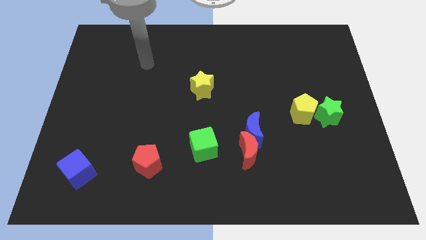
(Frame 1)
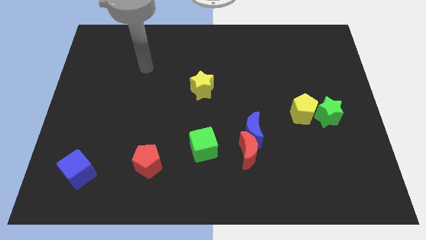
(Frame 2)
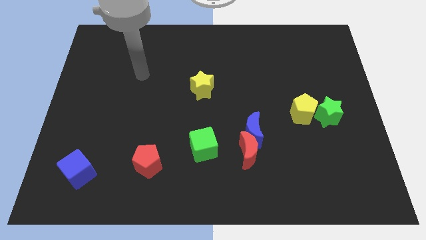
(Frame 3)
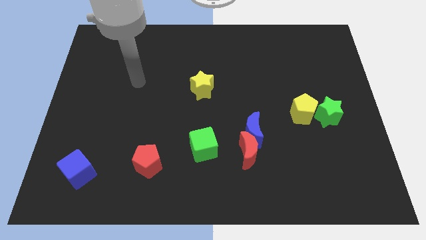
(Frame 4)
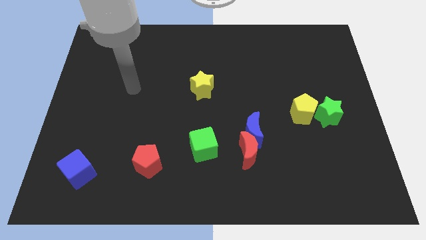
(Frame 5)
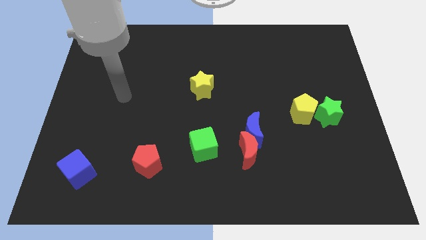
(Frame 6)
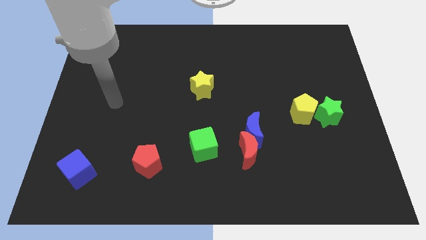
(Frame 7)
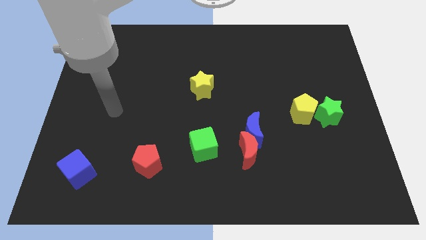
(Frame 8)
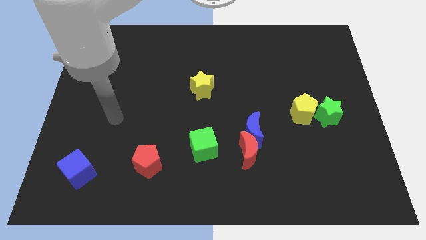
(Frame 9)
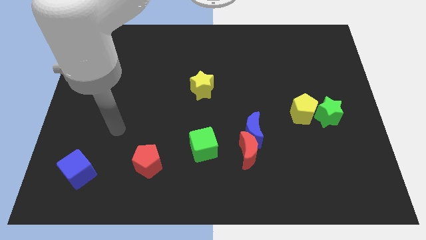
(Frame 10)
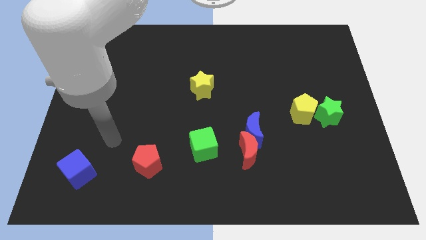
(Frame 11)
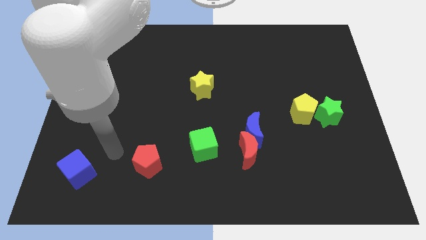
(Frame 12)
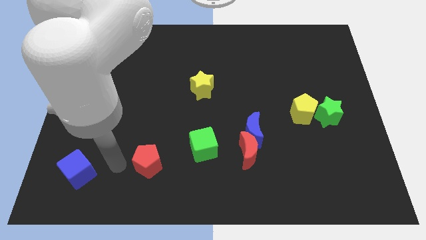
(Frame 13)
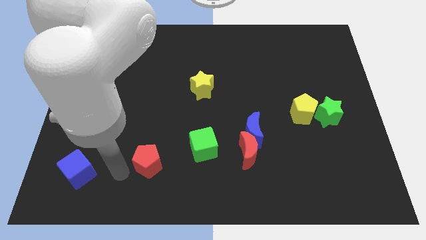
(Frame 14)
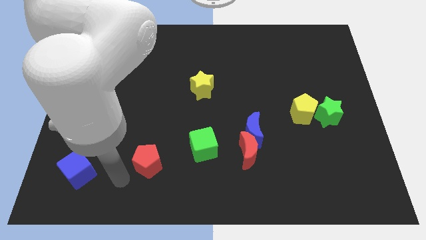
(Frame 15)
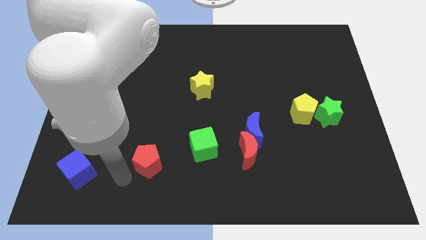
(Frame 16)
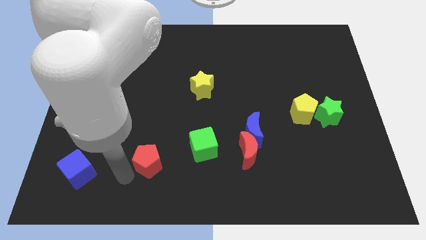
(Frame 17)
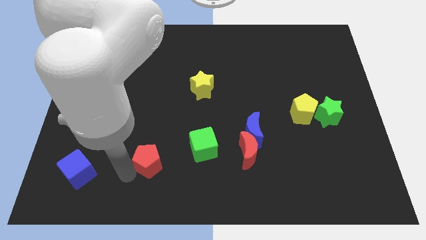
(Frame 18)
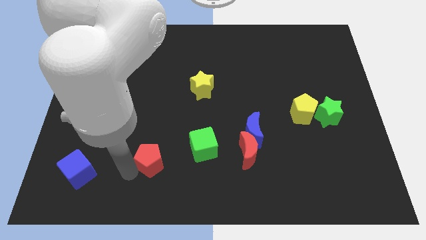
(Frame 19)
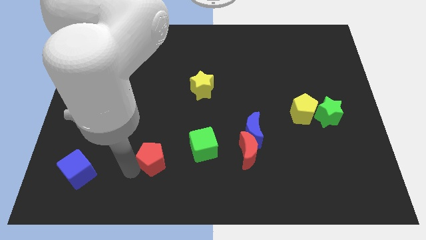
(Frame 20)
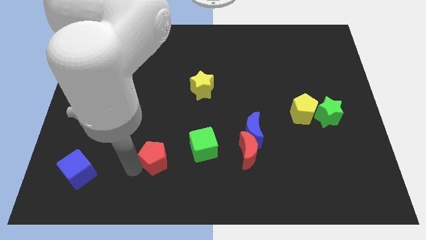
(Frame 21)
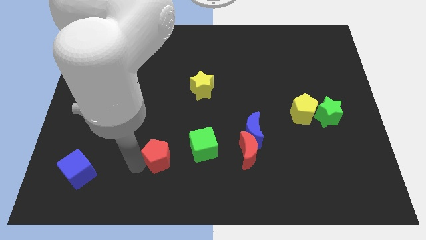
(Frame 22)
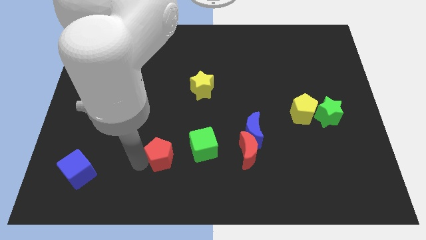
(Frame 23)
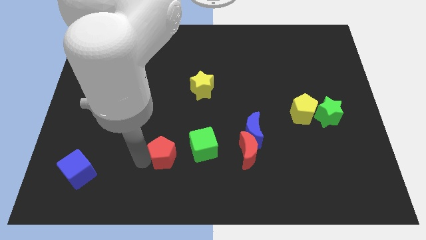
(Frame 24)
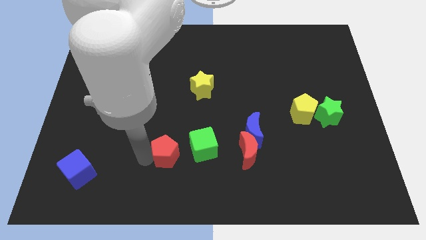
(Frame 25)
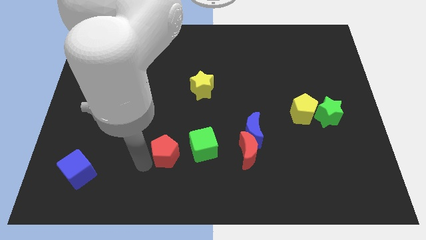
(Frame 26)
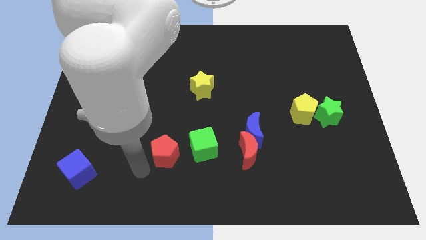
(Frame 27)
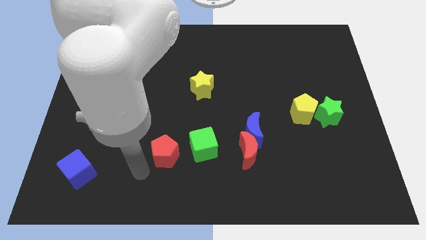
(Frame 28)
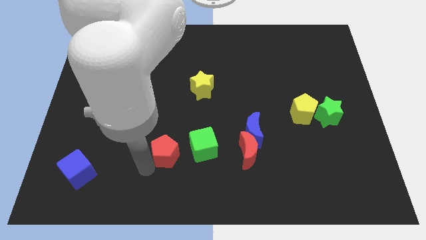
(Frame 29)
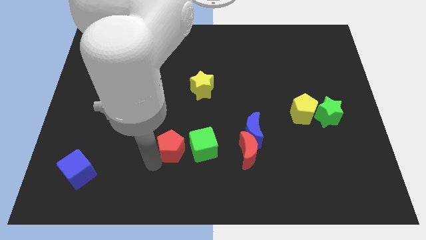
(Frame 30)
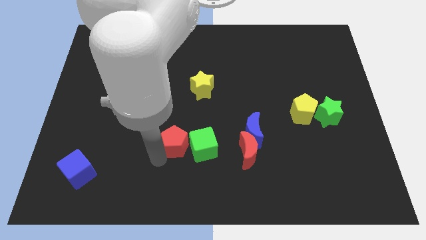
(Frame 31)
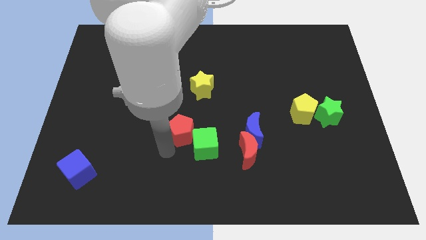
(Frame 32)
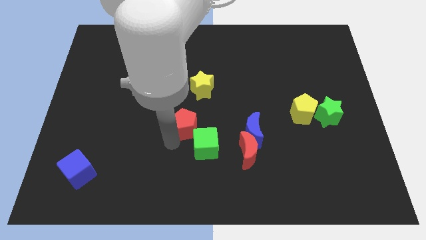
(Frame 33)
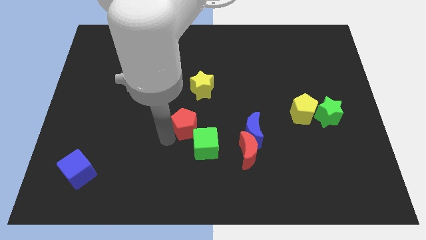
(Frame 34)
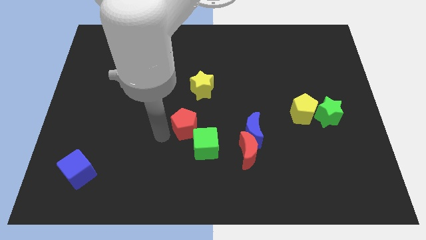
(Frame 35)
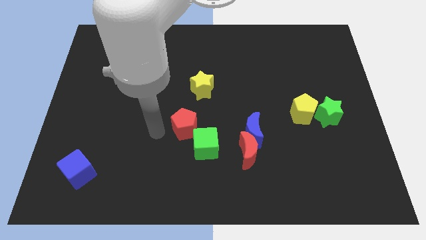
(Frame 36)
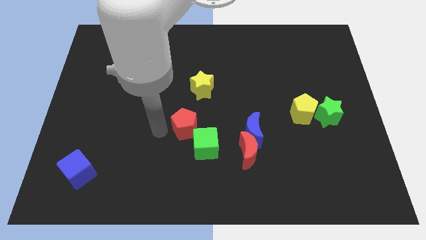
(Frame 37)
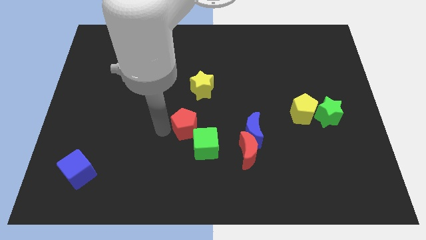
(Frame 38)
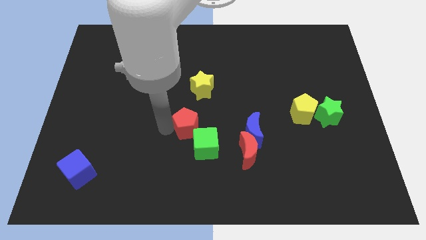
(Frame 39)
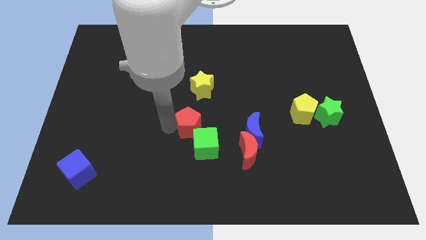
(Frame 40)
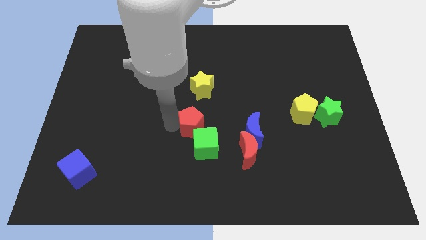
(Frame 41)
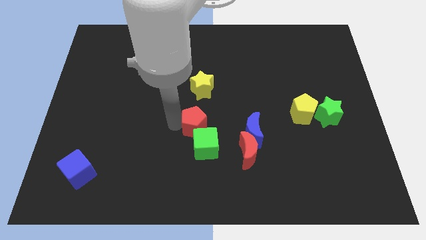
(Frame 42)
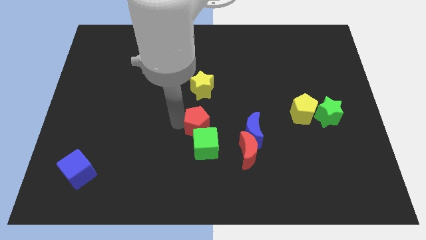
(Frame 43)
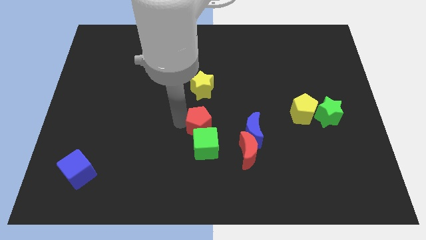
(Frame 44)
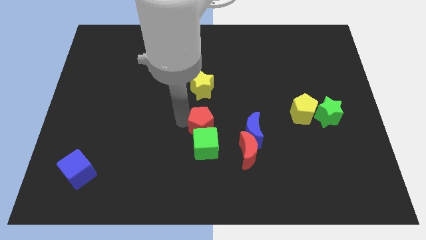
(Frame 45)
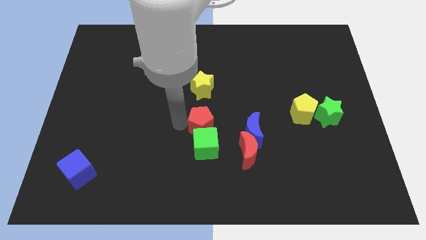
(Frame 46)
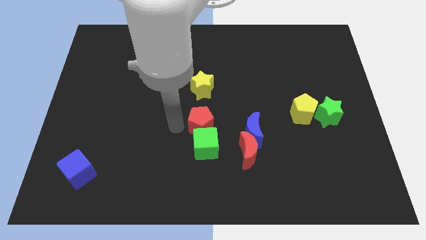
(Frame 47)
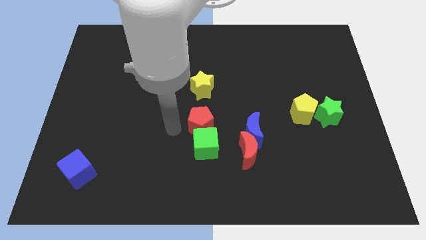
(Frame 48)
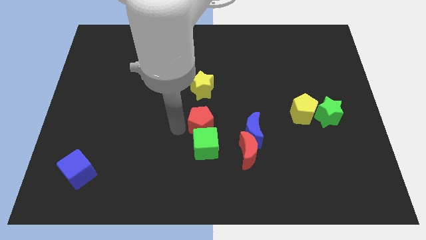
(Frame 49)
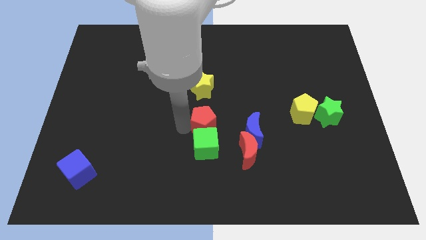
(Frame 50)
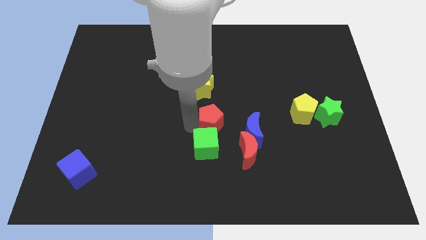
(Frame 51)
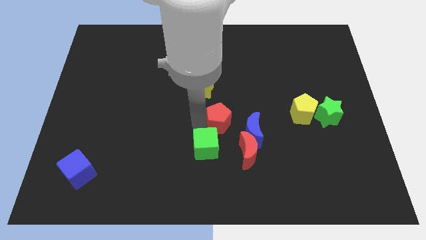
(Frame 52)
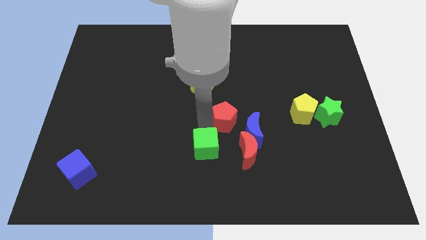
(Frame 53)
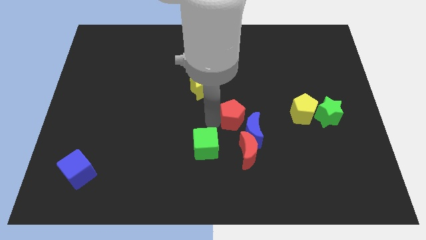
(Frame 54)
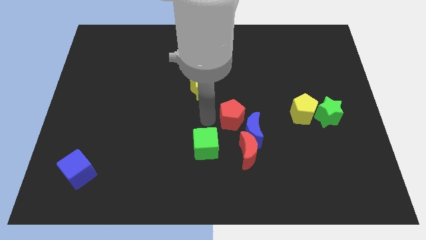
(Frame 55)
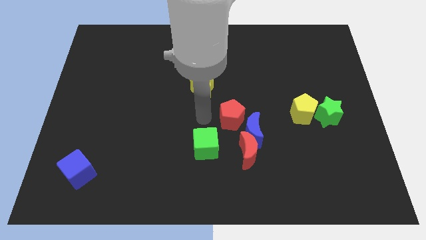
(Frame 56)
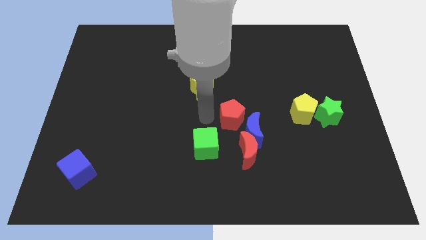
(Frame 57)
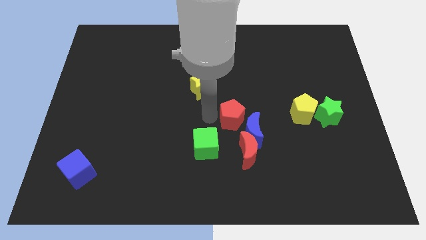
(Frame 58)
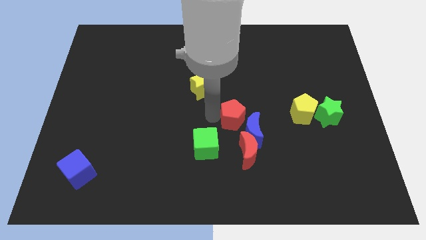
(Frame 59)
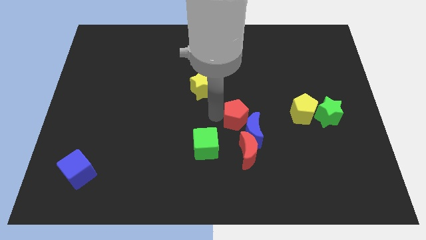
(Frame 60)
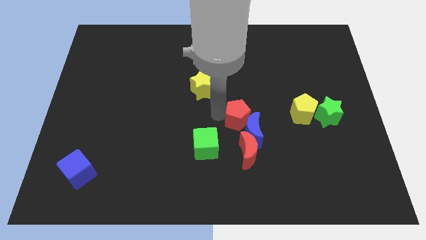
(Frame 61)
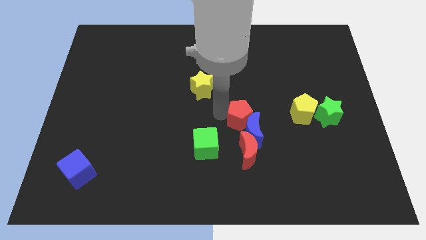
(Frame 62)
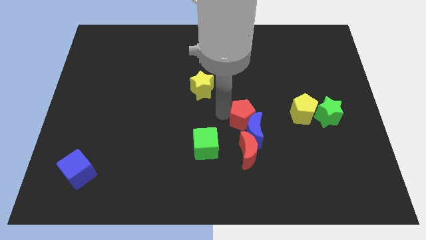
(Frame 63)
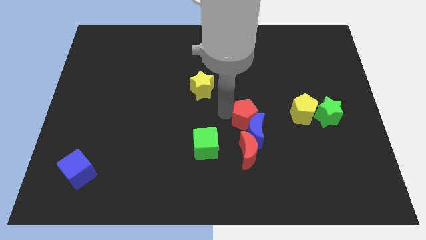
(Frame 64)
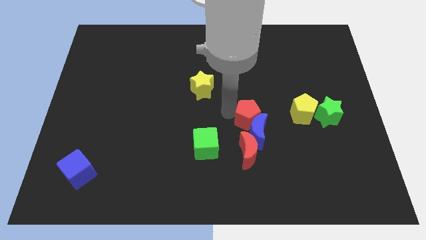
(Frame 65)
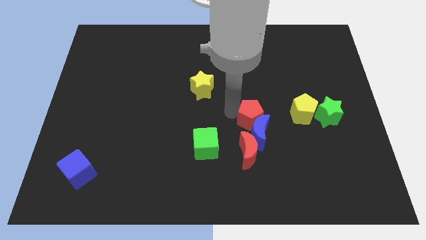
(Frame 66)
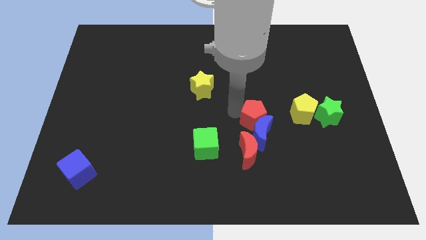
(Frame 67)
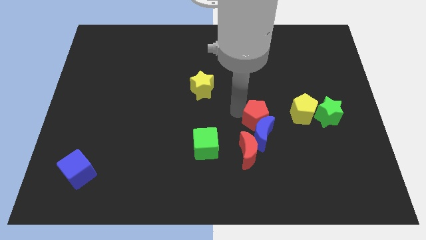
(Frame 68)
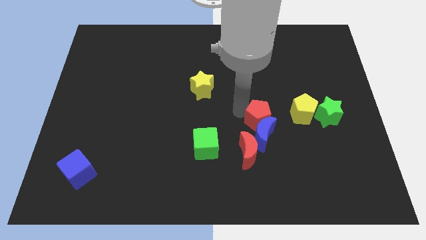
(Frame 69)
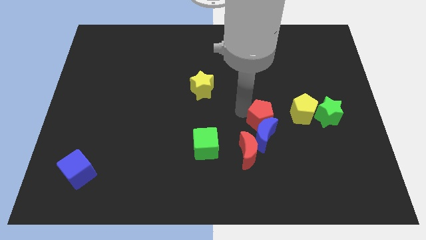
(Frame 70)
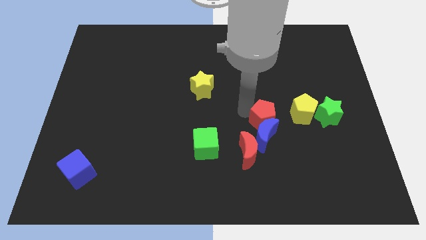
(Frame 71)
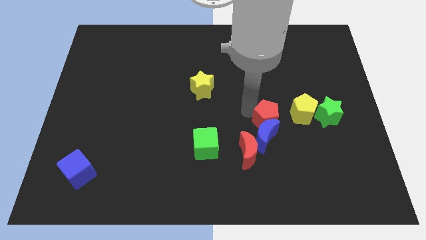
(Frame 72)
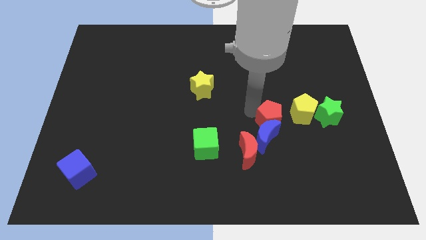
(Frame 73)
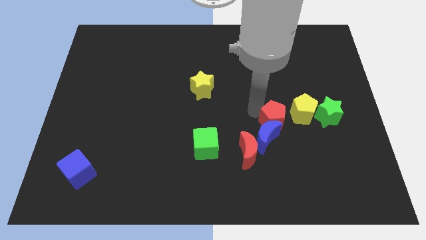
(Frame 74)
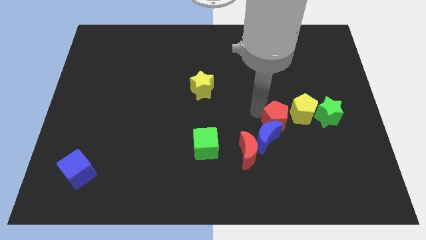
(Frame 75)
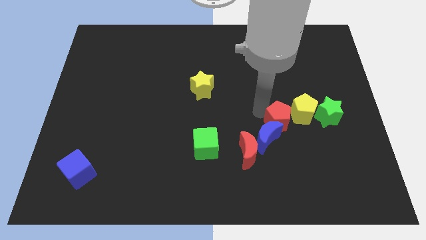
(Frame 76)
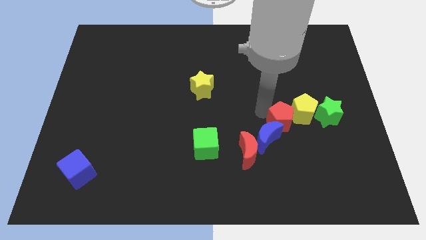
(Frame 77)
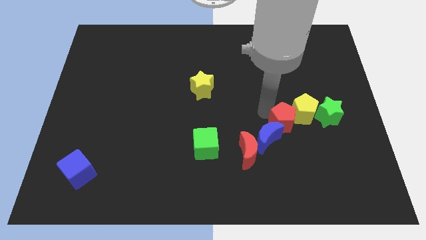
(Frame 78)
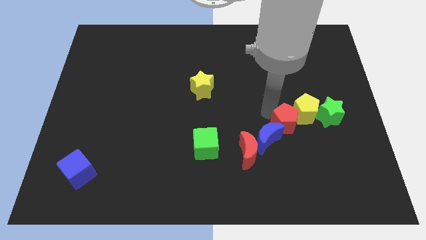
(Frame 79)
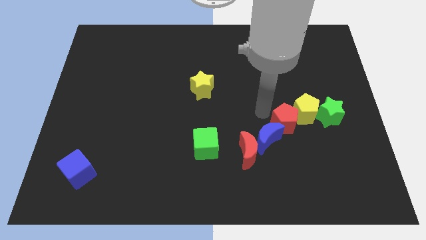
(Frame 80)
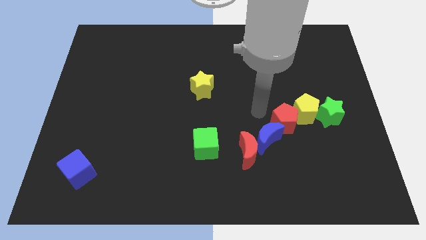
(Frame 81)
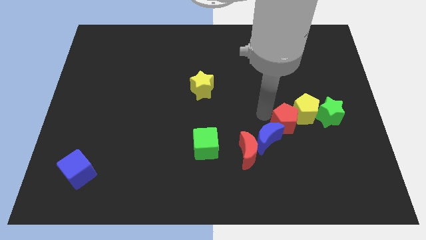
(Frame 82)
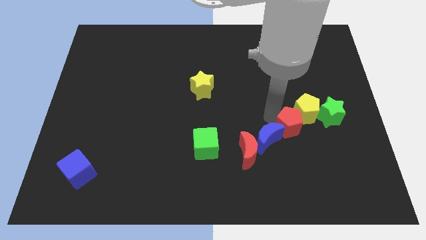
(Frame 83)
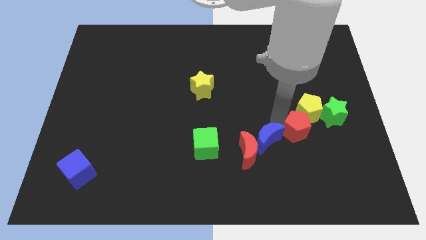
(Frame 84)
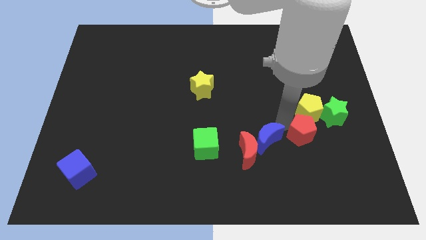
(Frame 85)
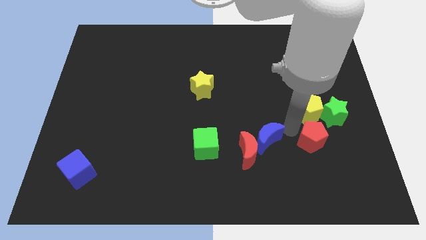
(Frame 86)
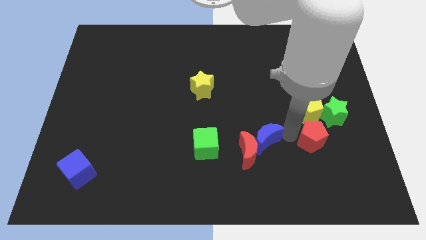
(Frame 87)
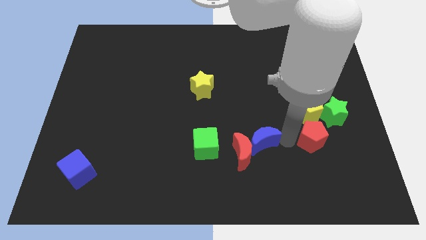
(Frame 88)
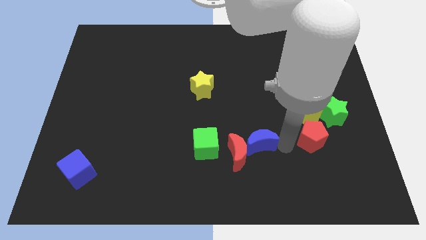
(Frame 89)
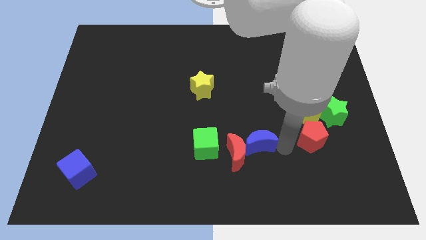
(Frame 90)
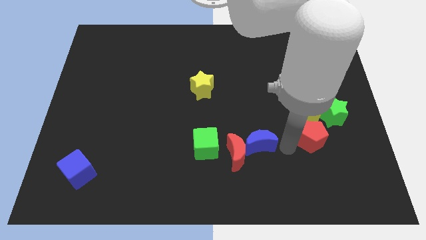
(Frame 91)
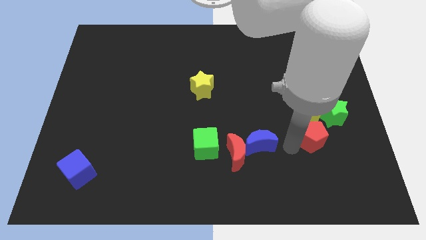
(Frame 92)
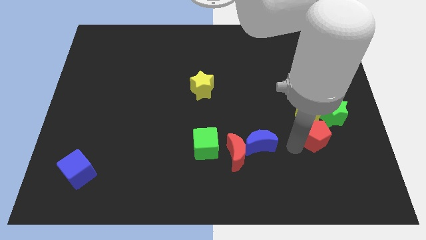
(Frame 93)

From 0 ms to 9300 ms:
put the red pentagon diagonally down and to the right of the yellow pentagon
